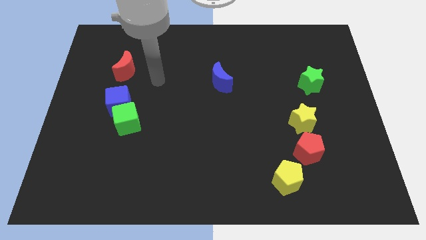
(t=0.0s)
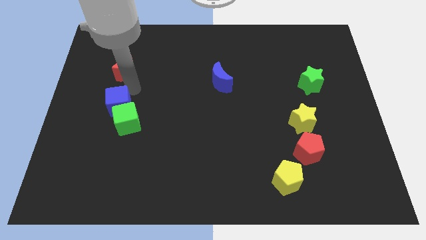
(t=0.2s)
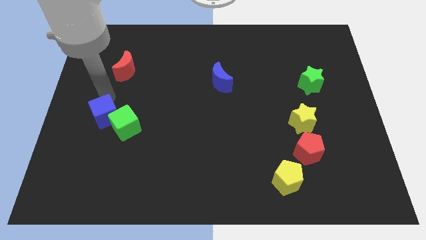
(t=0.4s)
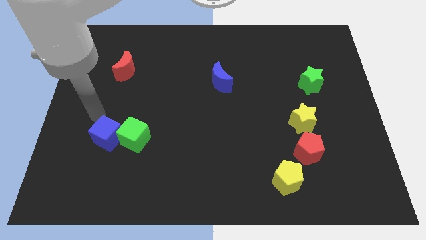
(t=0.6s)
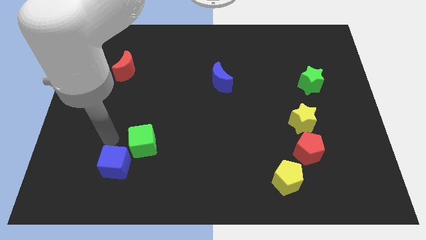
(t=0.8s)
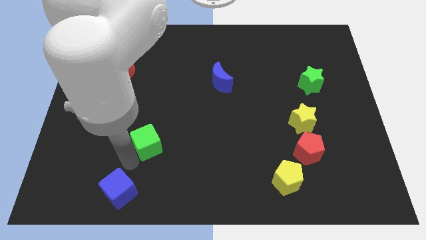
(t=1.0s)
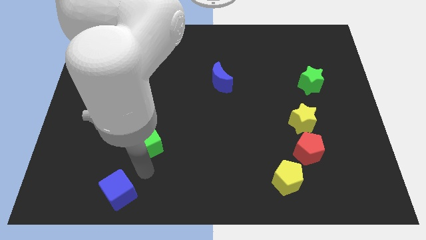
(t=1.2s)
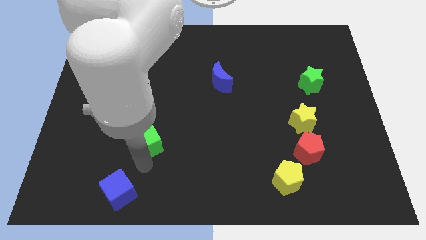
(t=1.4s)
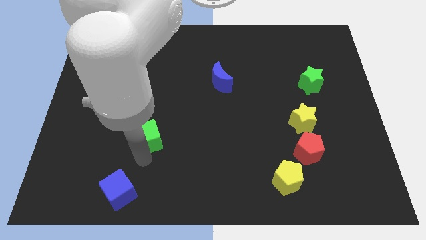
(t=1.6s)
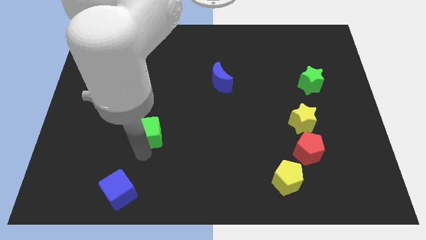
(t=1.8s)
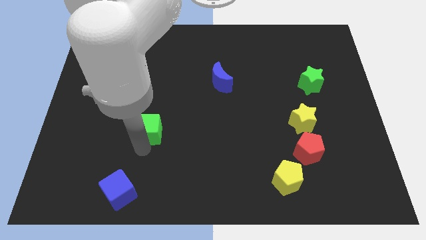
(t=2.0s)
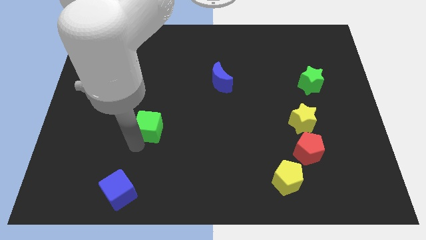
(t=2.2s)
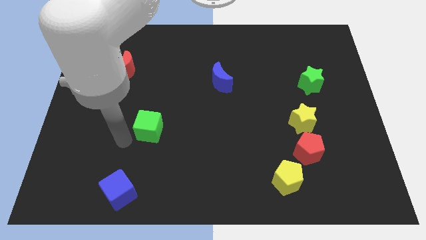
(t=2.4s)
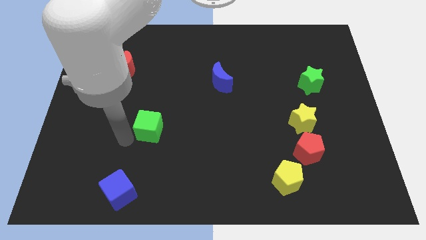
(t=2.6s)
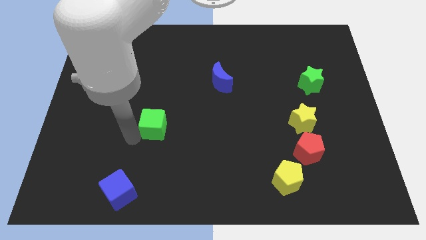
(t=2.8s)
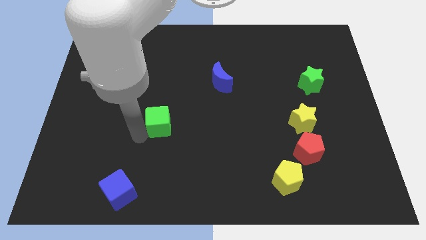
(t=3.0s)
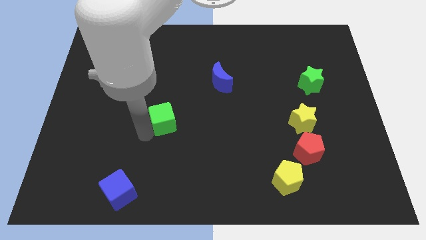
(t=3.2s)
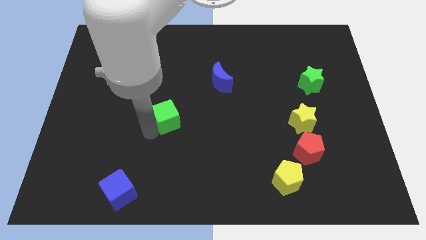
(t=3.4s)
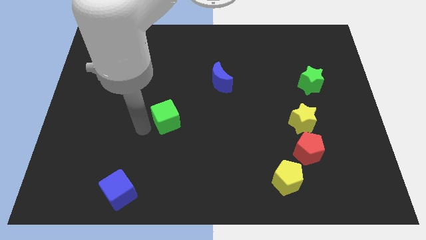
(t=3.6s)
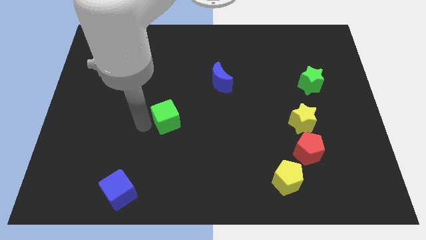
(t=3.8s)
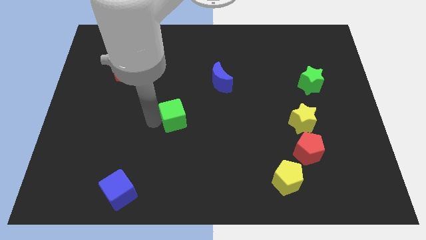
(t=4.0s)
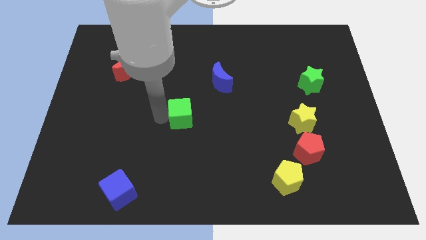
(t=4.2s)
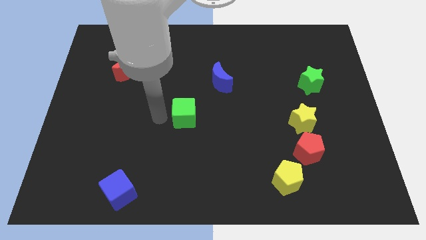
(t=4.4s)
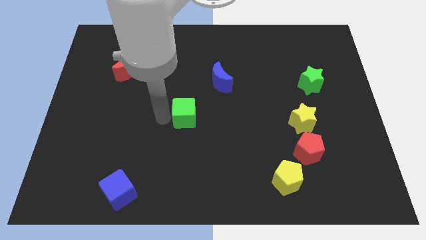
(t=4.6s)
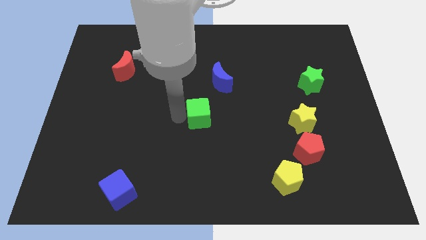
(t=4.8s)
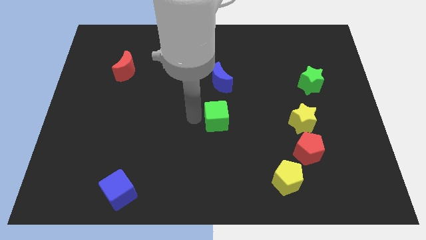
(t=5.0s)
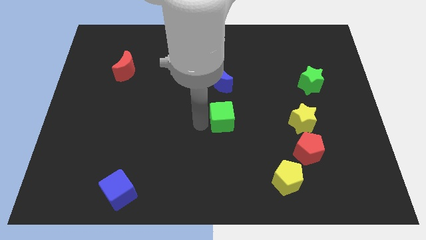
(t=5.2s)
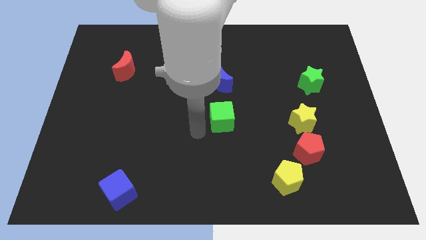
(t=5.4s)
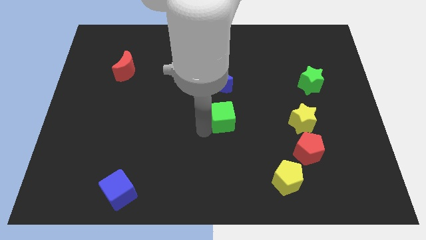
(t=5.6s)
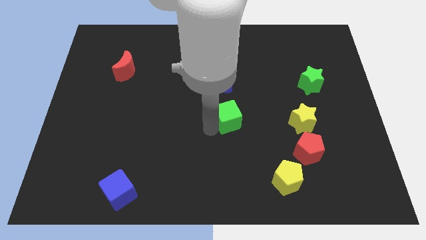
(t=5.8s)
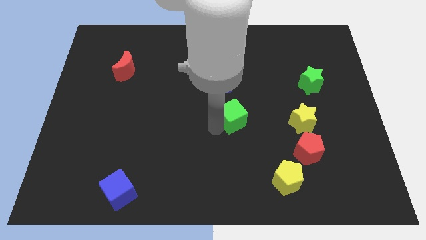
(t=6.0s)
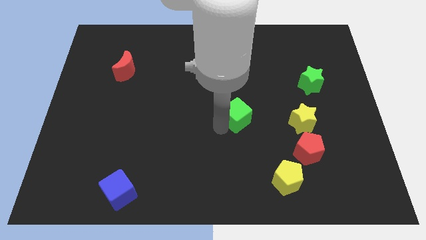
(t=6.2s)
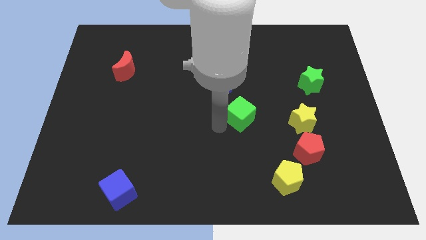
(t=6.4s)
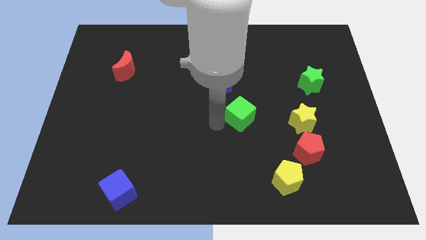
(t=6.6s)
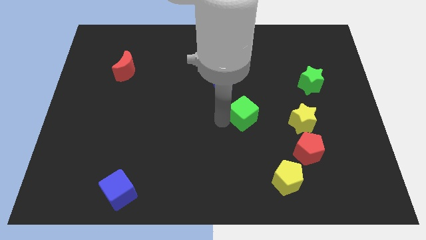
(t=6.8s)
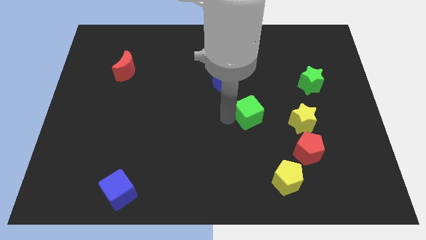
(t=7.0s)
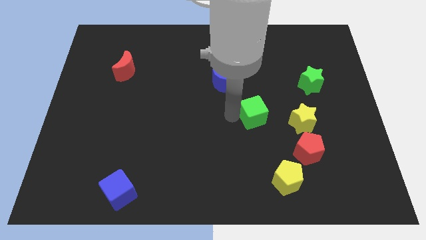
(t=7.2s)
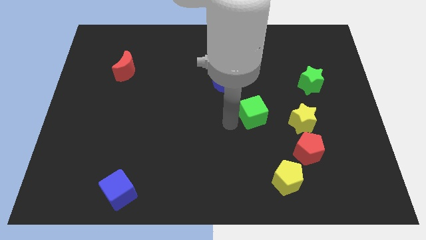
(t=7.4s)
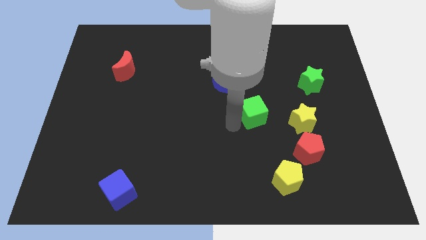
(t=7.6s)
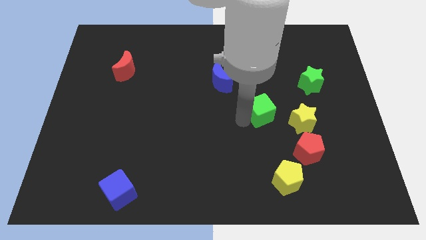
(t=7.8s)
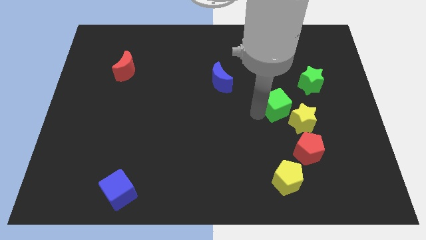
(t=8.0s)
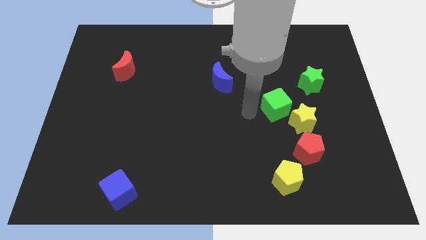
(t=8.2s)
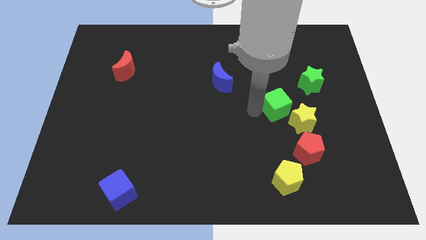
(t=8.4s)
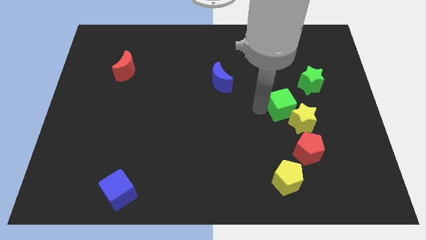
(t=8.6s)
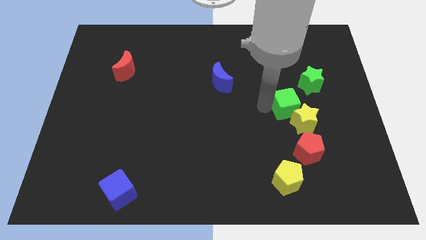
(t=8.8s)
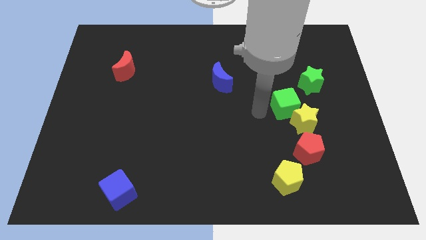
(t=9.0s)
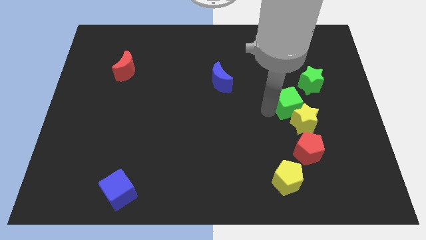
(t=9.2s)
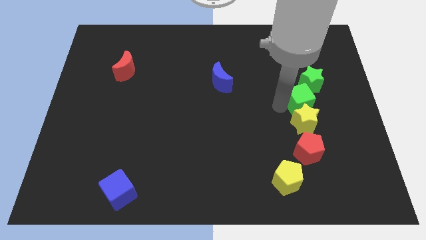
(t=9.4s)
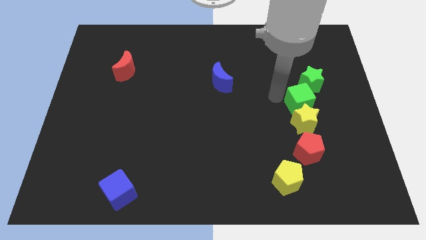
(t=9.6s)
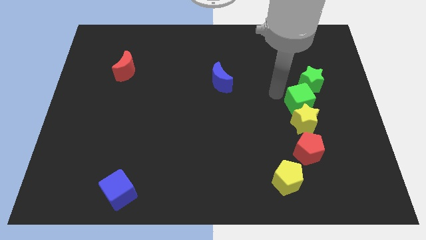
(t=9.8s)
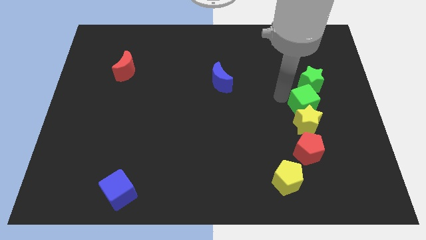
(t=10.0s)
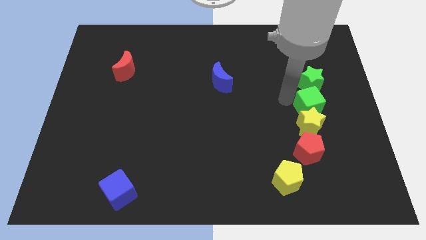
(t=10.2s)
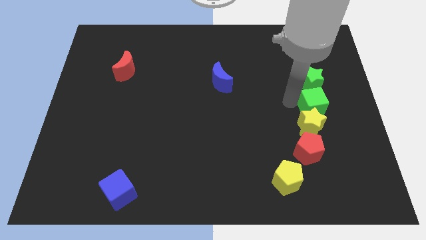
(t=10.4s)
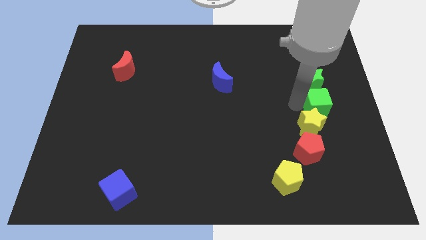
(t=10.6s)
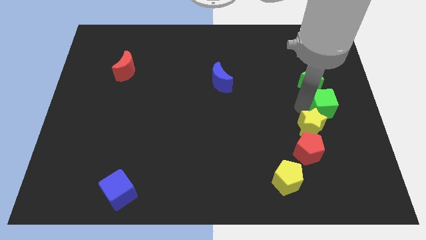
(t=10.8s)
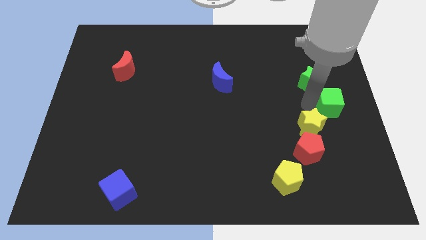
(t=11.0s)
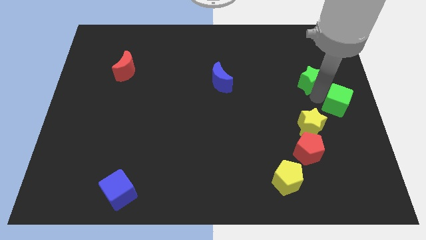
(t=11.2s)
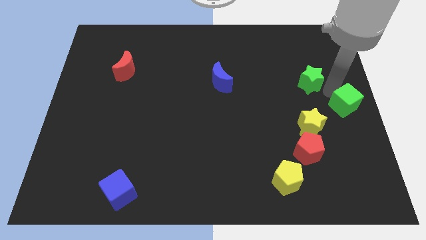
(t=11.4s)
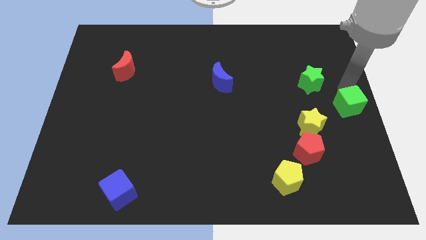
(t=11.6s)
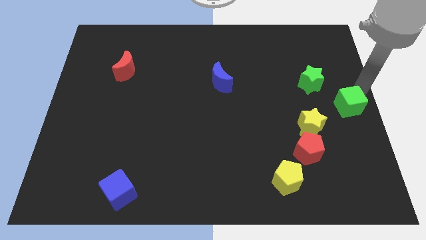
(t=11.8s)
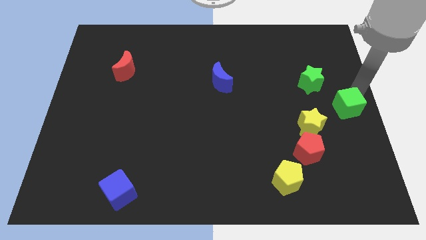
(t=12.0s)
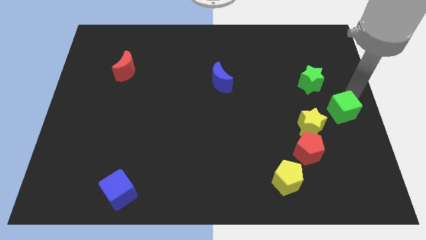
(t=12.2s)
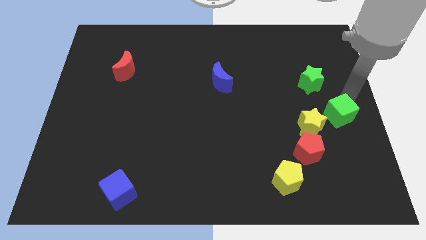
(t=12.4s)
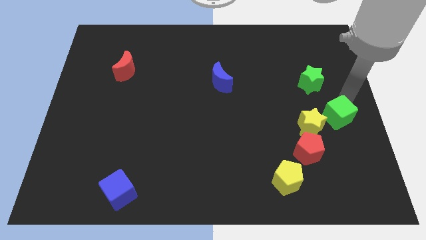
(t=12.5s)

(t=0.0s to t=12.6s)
put the green cube to the top right side of the red pentagon

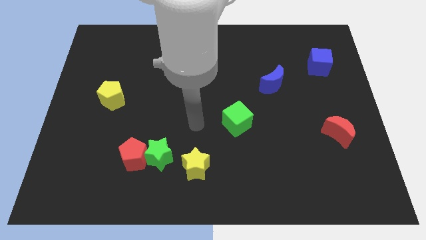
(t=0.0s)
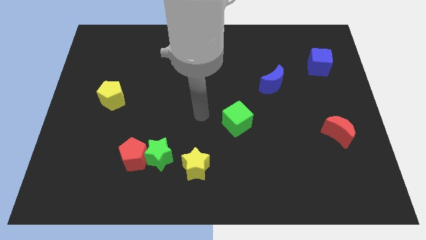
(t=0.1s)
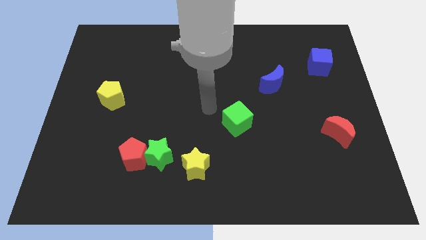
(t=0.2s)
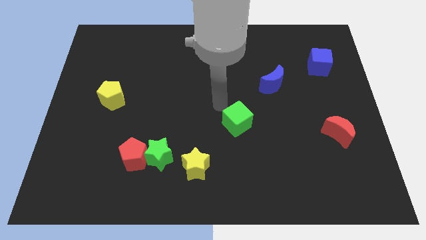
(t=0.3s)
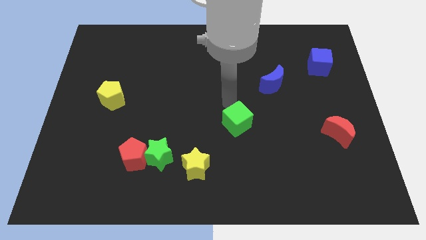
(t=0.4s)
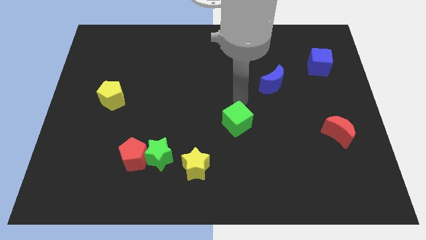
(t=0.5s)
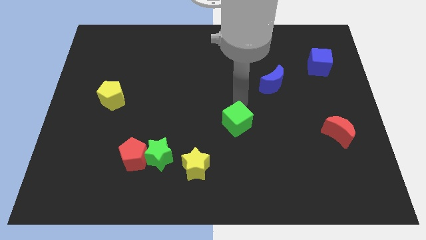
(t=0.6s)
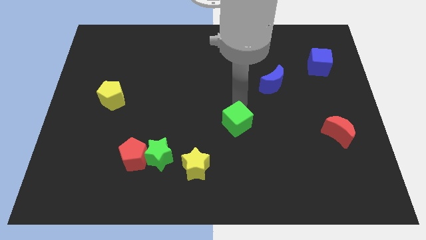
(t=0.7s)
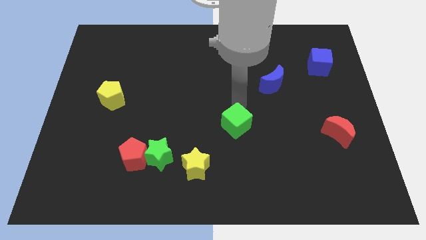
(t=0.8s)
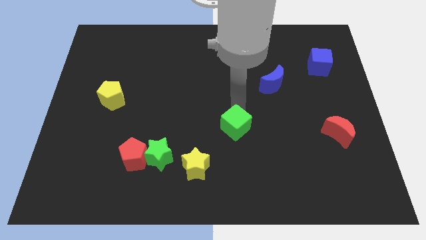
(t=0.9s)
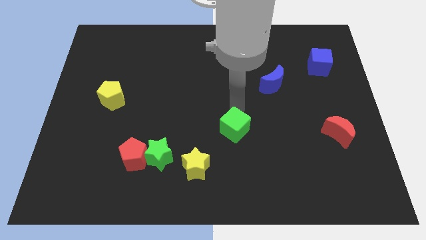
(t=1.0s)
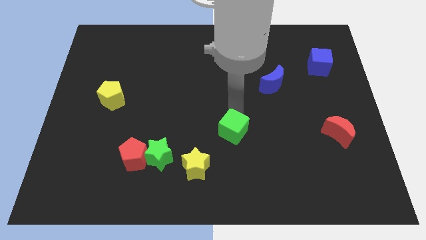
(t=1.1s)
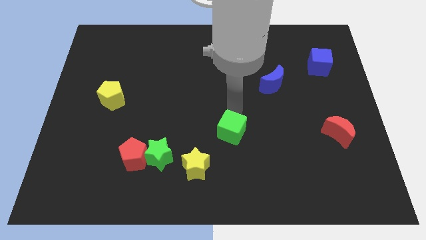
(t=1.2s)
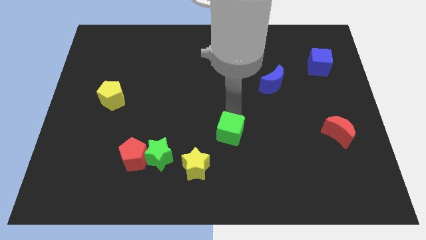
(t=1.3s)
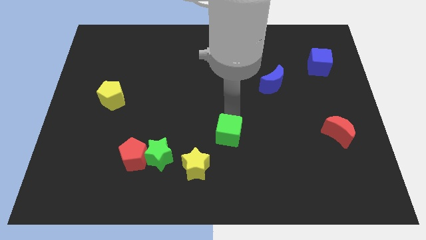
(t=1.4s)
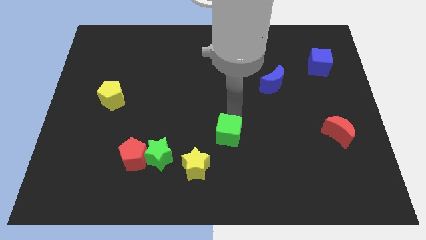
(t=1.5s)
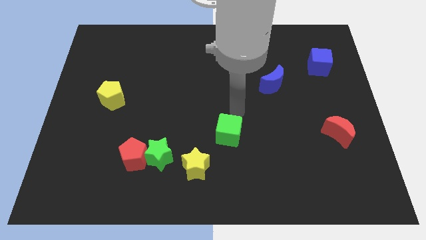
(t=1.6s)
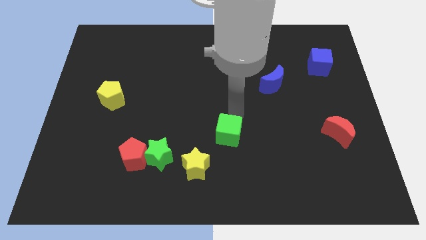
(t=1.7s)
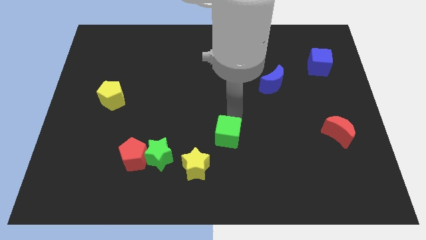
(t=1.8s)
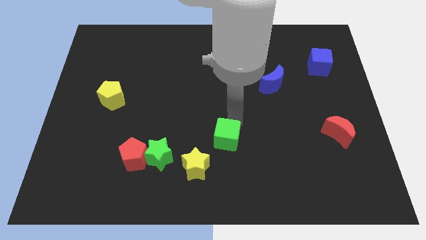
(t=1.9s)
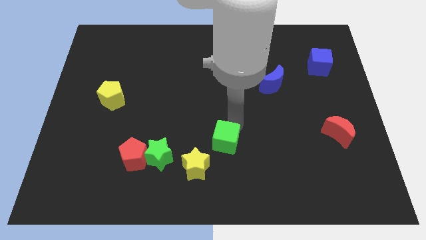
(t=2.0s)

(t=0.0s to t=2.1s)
move the green cube right of the green star
